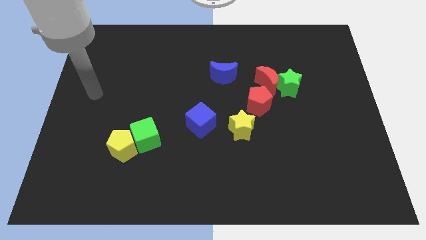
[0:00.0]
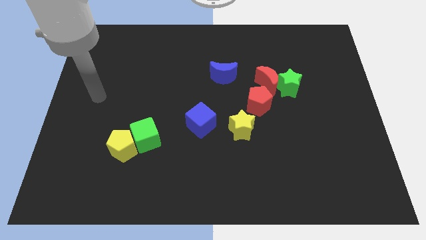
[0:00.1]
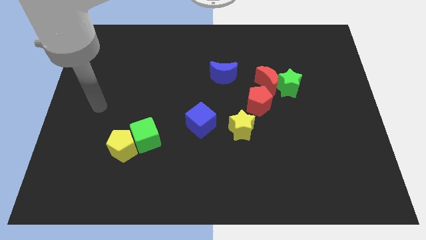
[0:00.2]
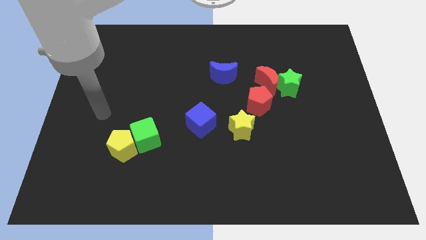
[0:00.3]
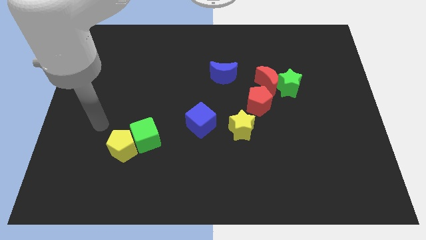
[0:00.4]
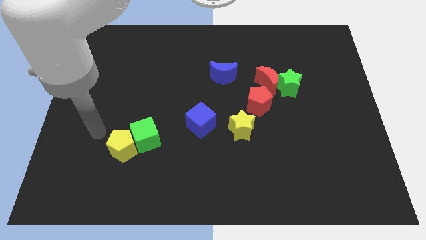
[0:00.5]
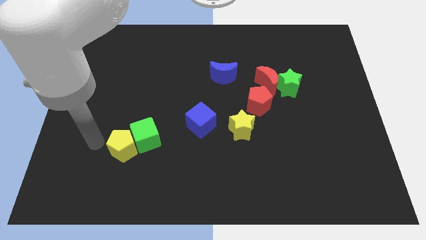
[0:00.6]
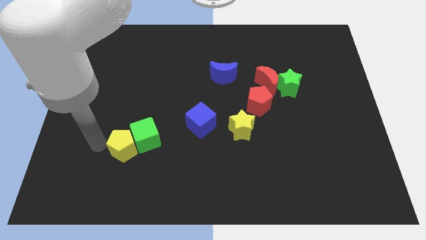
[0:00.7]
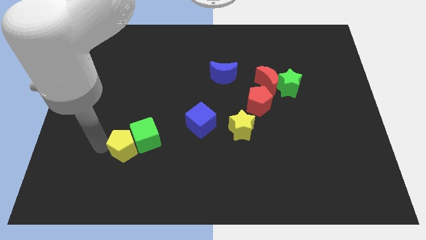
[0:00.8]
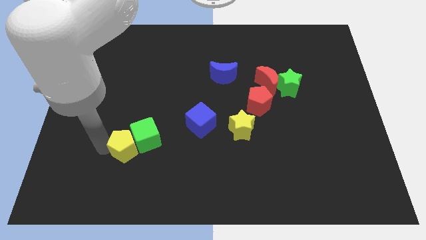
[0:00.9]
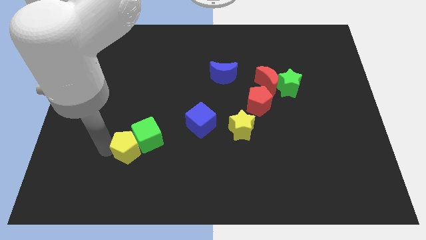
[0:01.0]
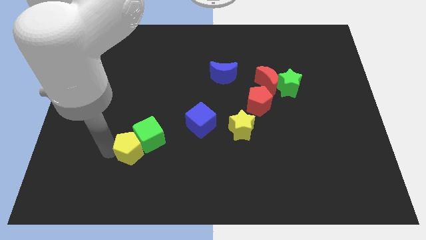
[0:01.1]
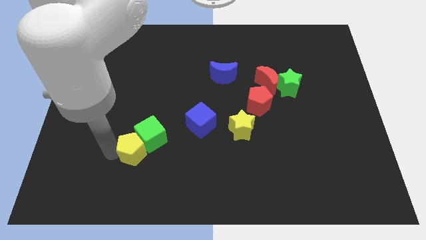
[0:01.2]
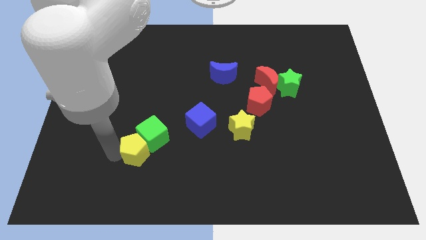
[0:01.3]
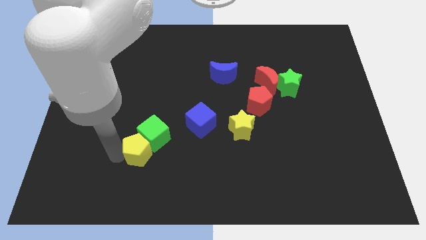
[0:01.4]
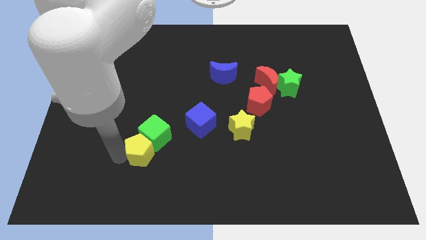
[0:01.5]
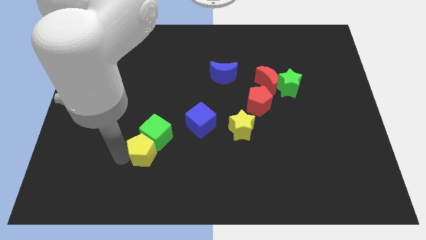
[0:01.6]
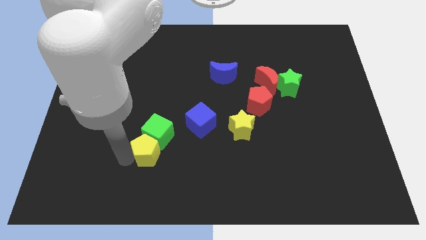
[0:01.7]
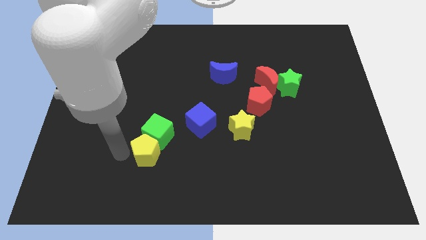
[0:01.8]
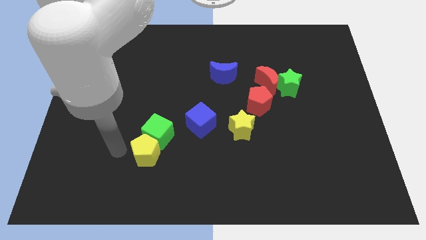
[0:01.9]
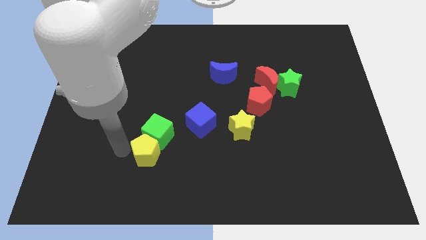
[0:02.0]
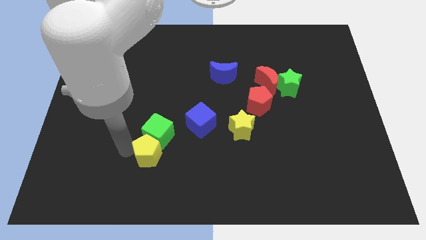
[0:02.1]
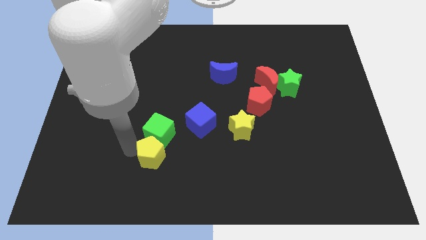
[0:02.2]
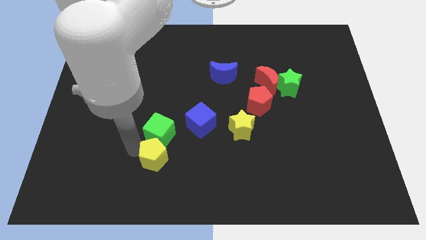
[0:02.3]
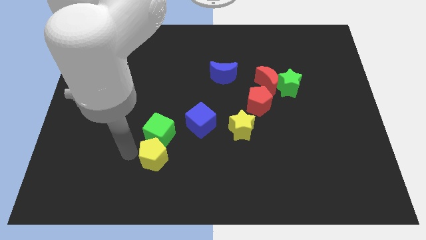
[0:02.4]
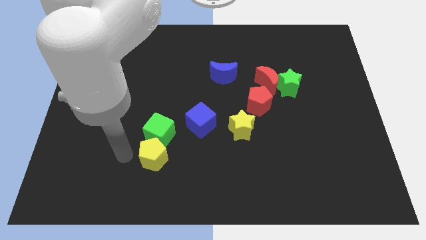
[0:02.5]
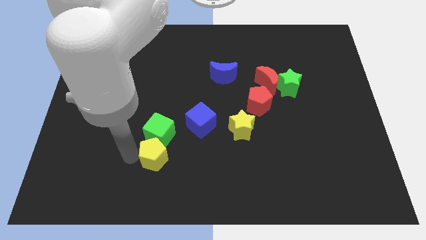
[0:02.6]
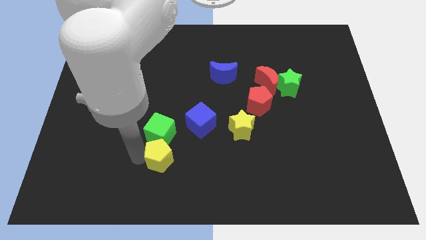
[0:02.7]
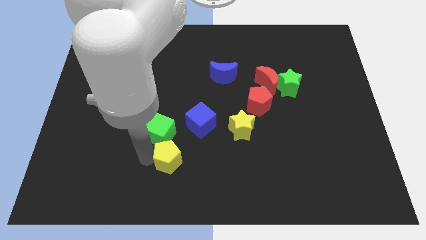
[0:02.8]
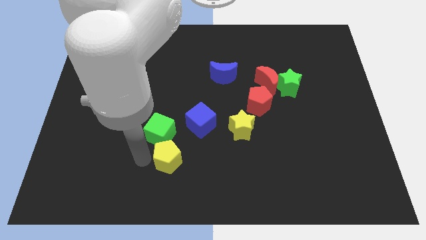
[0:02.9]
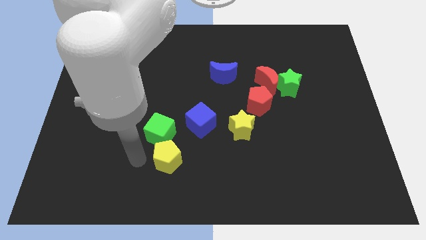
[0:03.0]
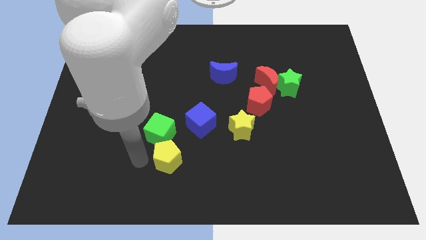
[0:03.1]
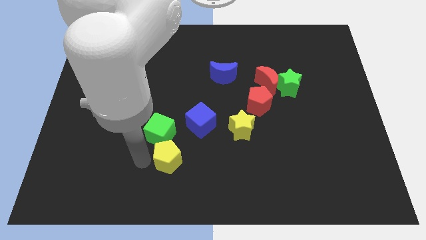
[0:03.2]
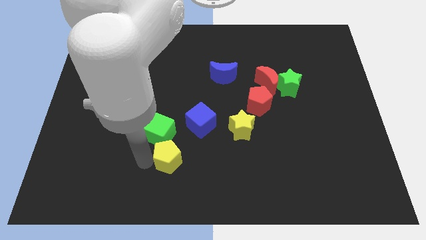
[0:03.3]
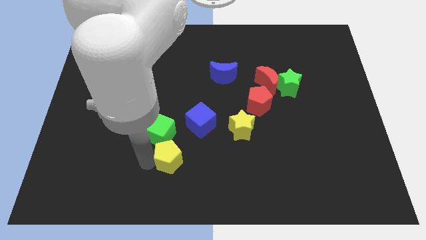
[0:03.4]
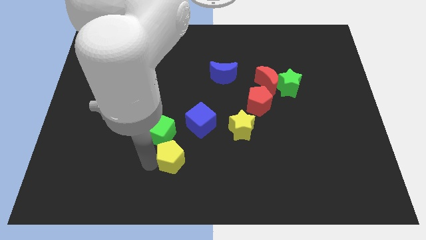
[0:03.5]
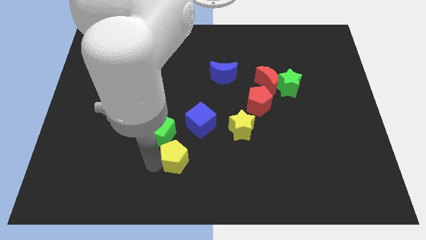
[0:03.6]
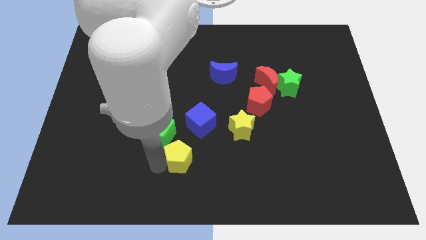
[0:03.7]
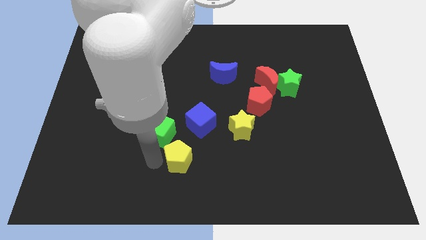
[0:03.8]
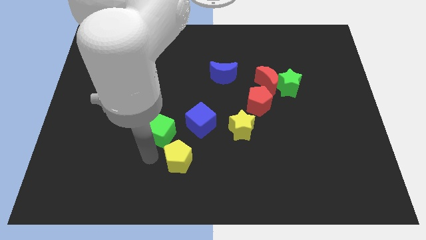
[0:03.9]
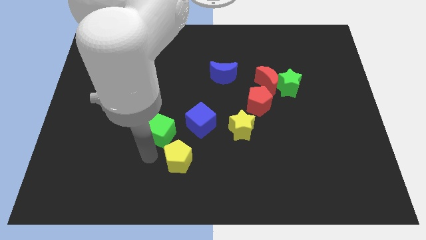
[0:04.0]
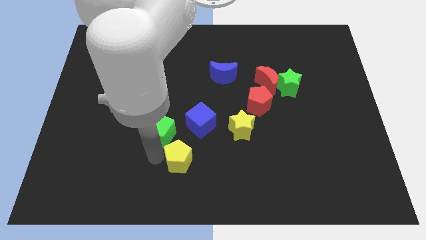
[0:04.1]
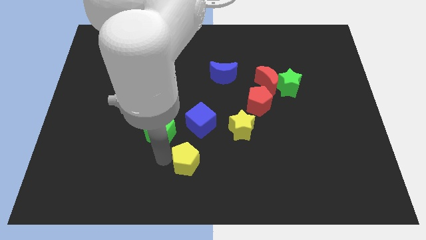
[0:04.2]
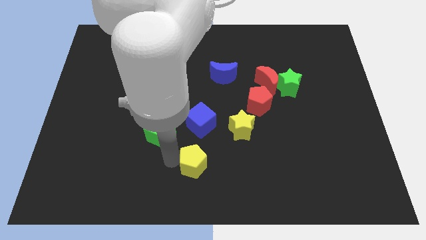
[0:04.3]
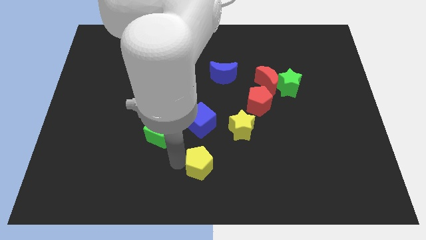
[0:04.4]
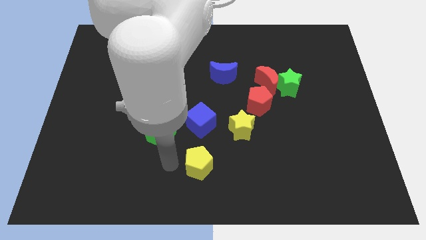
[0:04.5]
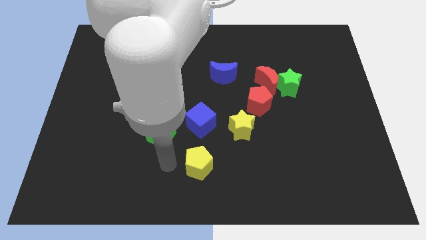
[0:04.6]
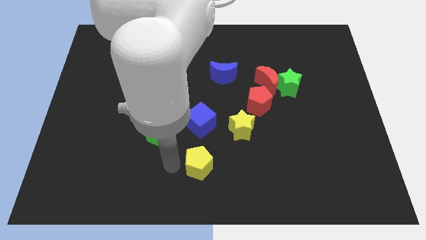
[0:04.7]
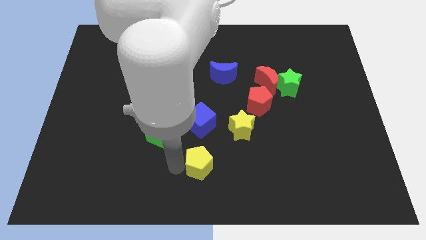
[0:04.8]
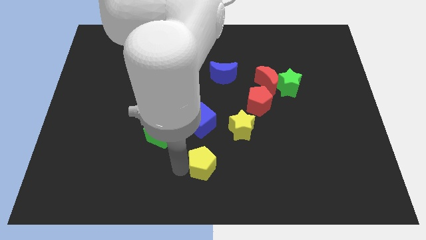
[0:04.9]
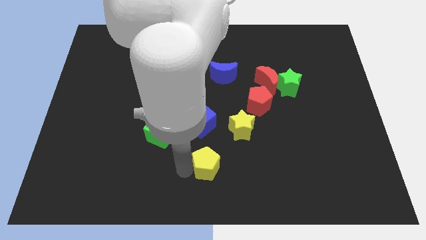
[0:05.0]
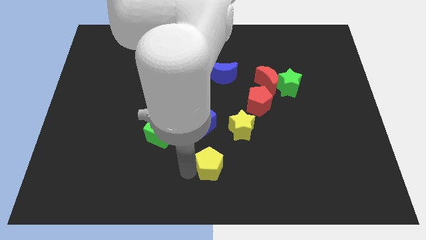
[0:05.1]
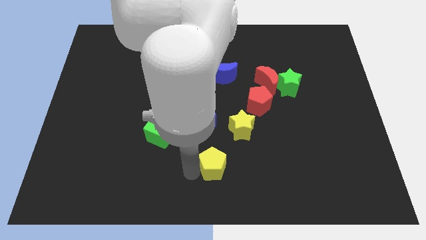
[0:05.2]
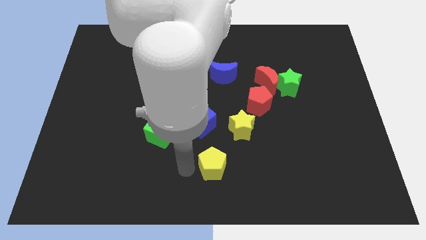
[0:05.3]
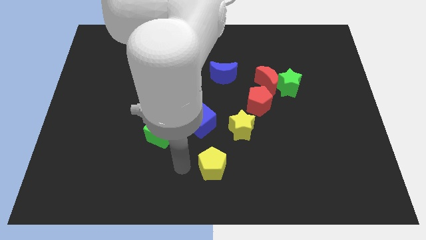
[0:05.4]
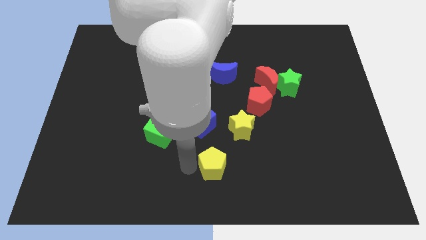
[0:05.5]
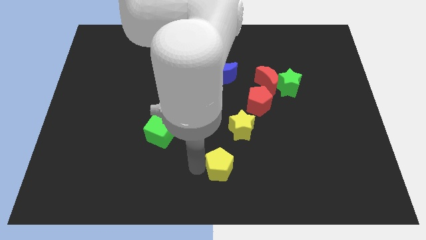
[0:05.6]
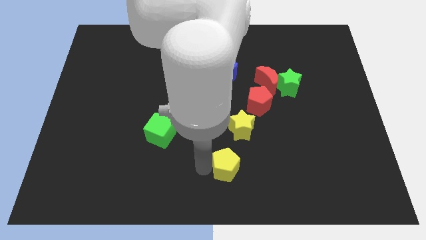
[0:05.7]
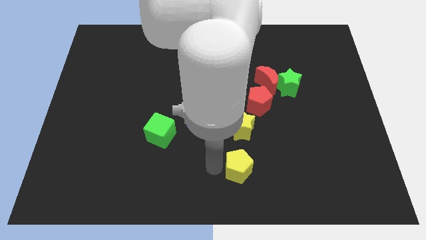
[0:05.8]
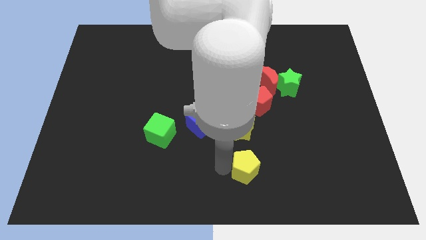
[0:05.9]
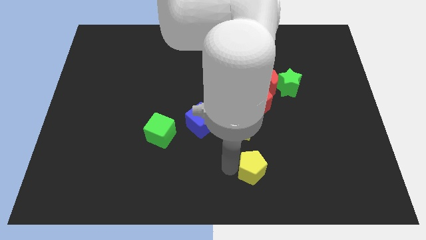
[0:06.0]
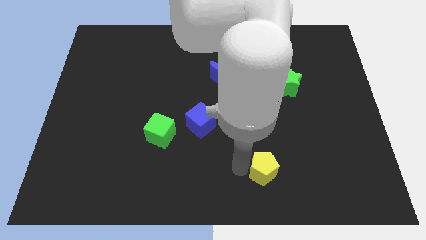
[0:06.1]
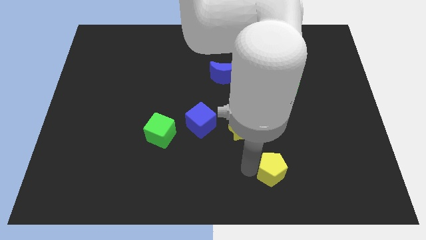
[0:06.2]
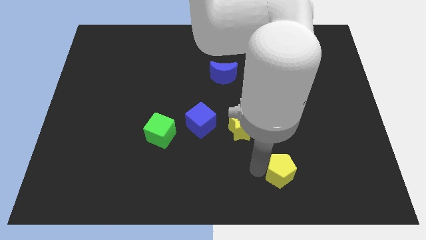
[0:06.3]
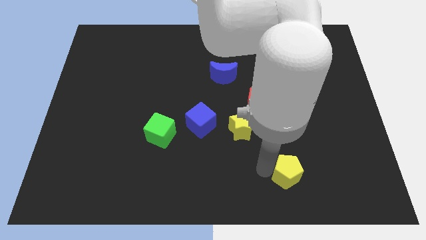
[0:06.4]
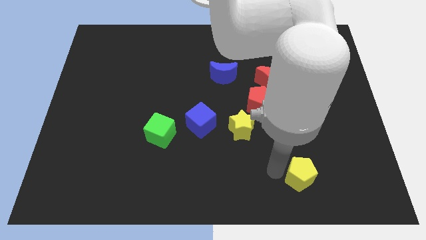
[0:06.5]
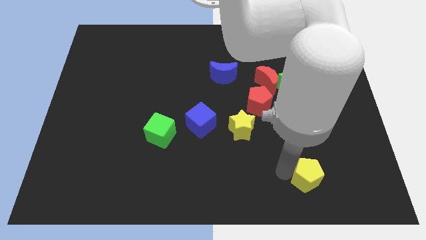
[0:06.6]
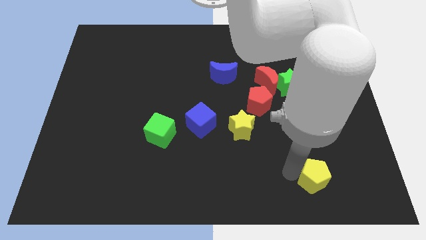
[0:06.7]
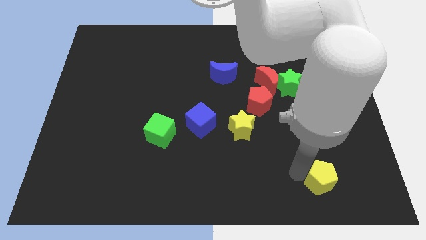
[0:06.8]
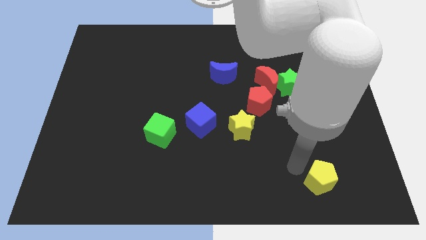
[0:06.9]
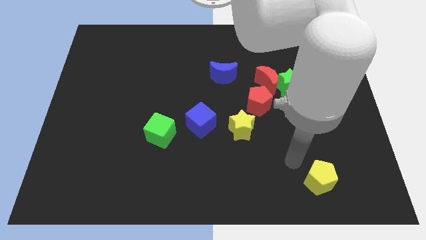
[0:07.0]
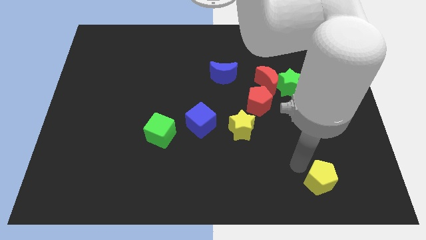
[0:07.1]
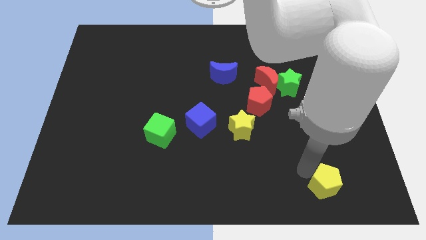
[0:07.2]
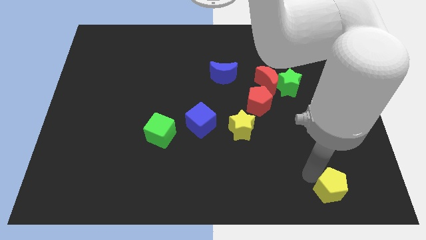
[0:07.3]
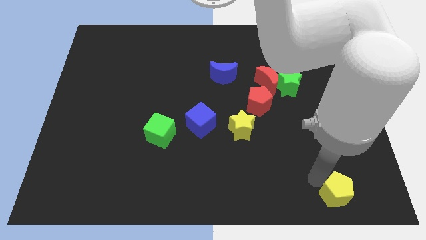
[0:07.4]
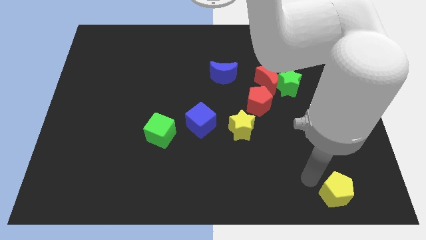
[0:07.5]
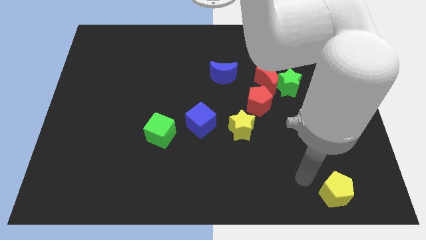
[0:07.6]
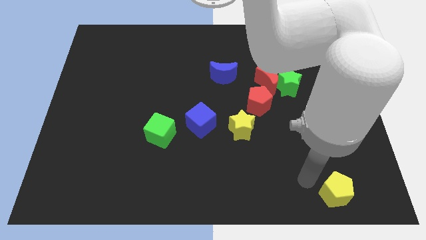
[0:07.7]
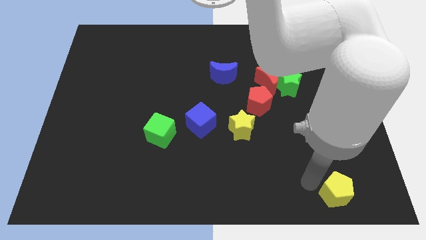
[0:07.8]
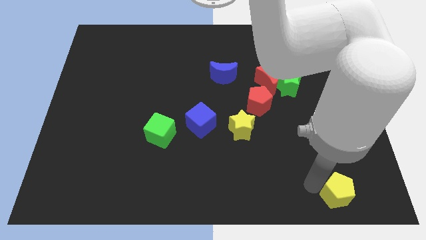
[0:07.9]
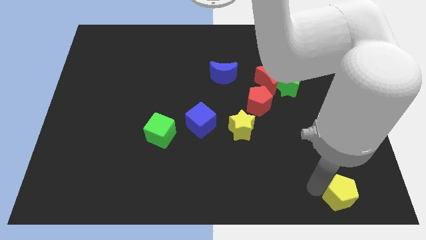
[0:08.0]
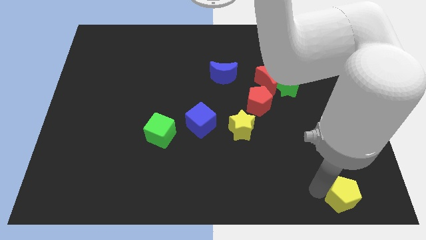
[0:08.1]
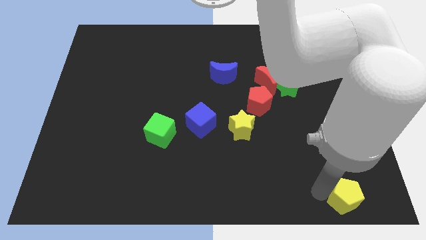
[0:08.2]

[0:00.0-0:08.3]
slide the yellow pentagon to the bottom right
